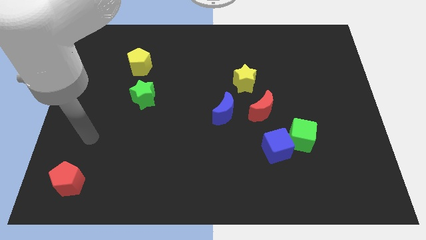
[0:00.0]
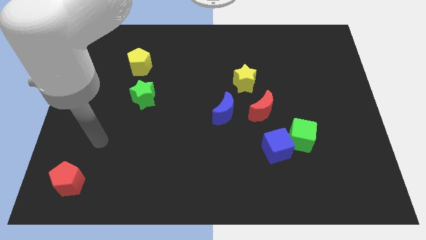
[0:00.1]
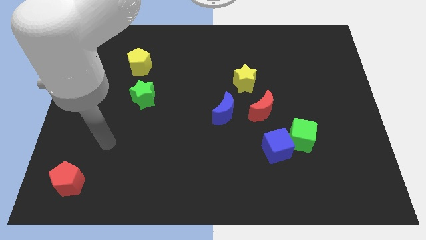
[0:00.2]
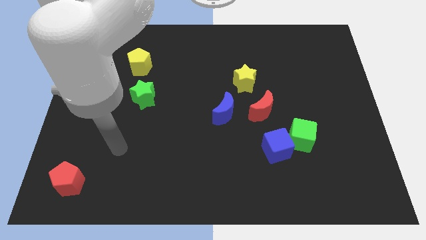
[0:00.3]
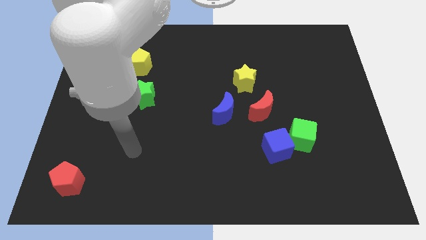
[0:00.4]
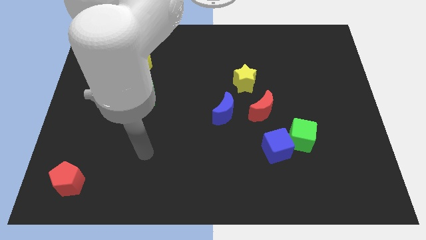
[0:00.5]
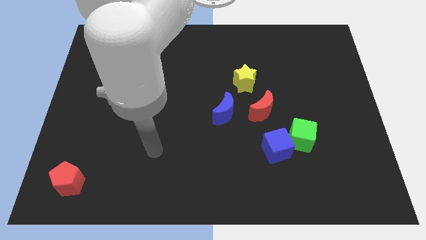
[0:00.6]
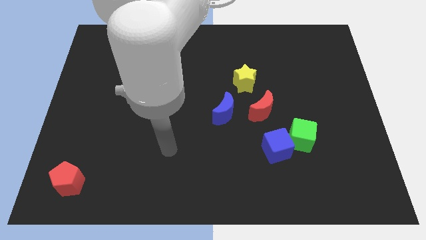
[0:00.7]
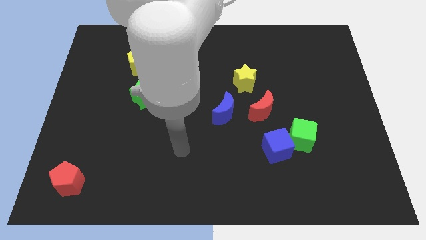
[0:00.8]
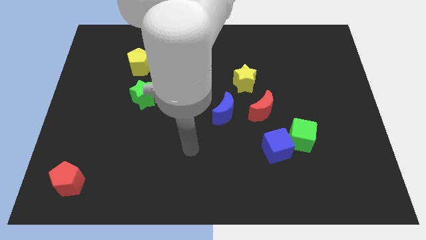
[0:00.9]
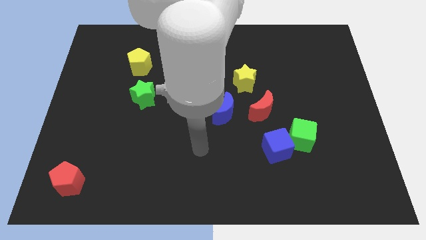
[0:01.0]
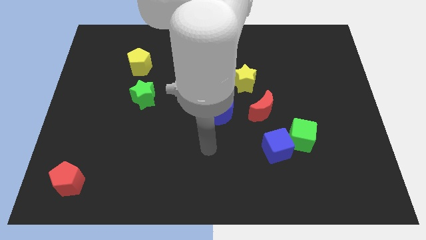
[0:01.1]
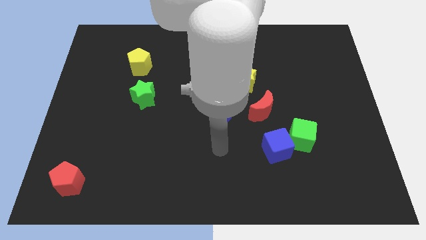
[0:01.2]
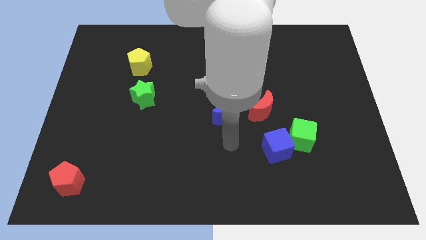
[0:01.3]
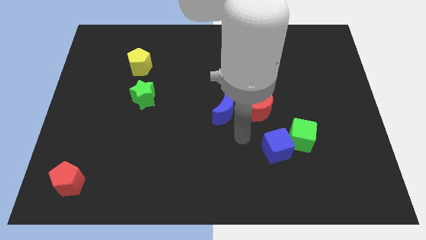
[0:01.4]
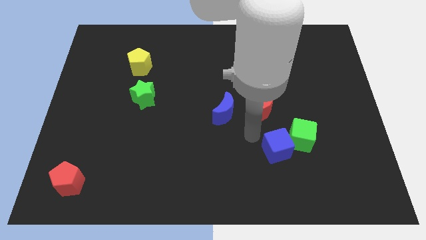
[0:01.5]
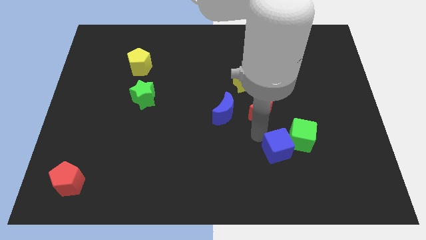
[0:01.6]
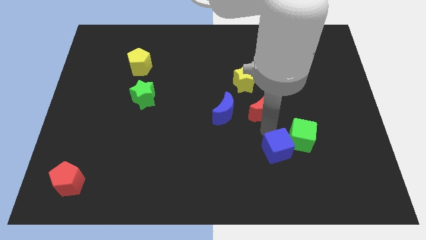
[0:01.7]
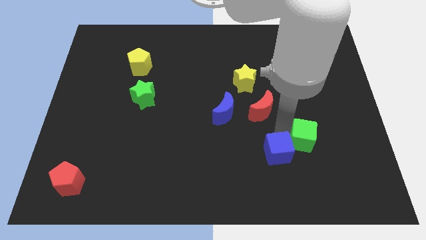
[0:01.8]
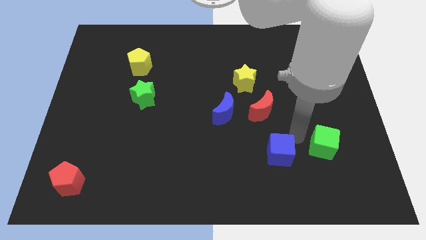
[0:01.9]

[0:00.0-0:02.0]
move the blue cube away from the green cube

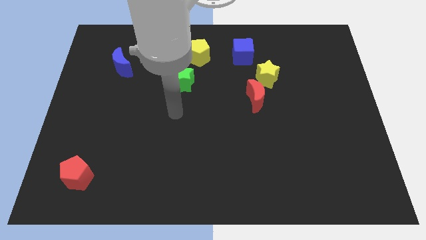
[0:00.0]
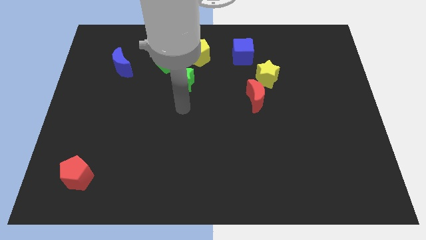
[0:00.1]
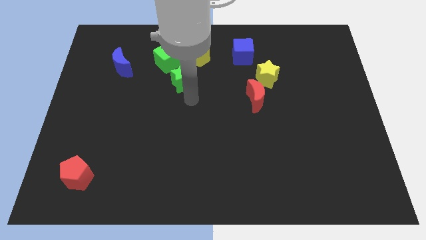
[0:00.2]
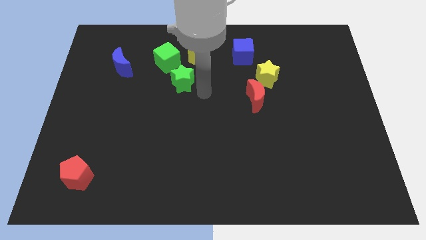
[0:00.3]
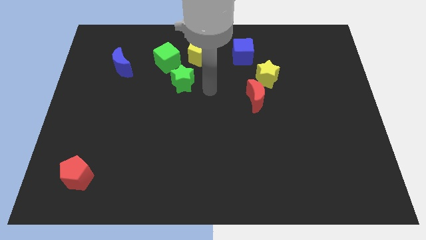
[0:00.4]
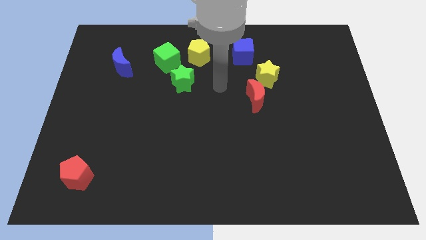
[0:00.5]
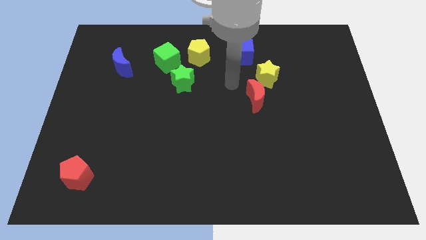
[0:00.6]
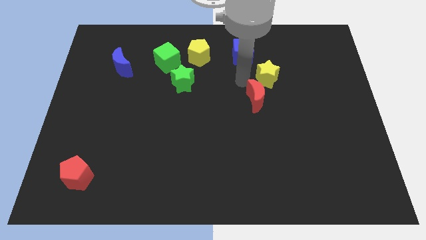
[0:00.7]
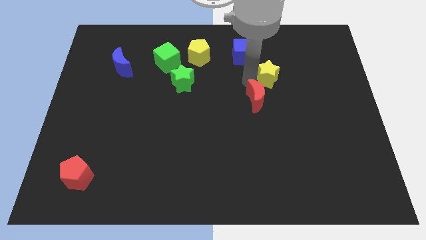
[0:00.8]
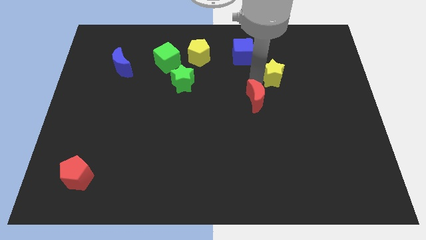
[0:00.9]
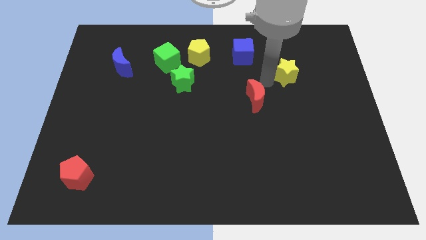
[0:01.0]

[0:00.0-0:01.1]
pull the red moon apart from the yellow star

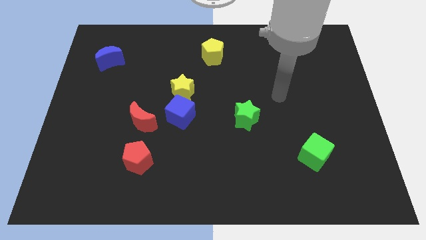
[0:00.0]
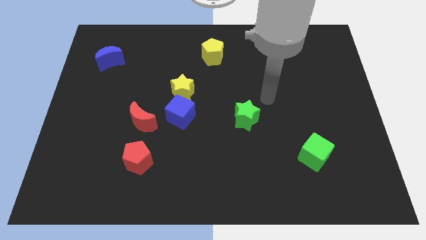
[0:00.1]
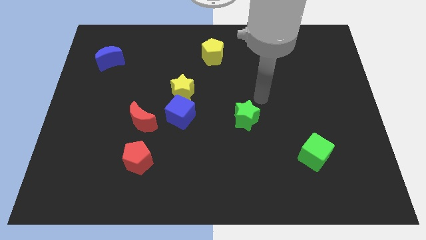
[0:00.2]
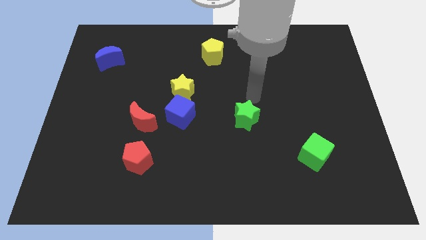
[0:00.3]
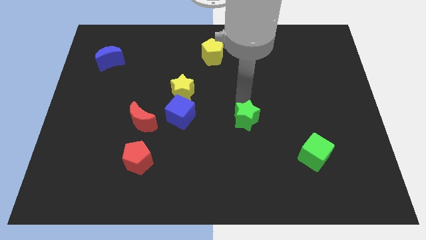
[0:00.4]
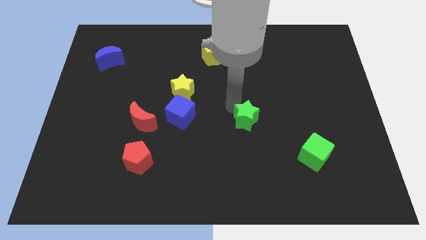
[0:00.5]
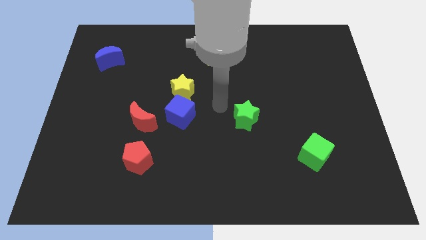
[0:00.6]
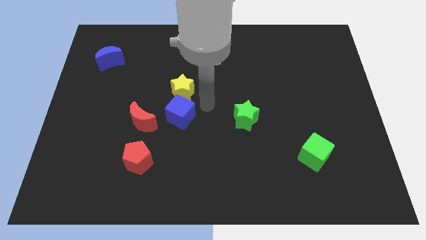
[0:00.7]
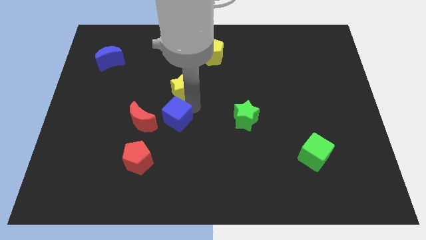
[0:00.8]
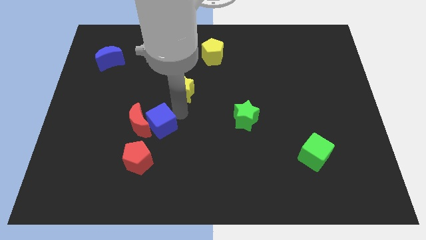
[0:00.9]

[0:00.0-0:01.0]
move the yellow star away from the blue cube

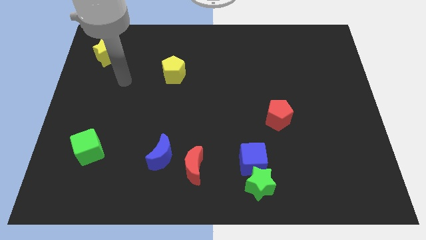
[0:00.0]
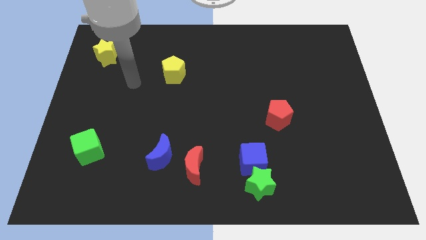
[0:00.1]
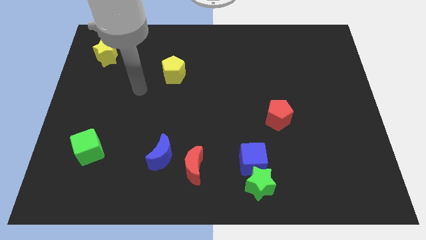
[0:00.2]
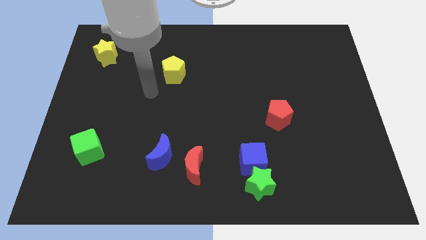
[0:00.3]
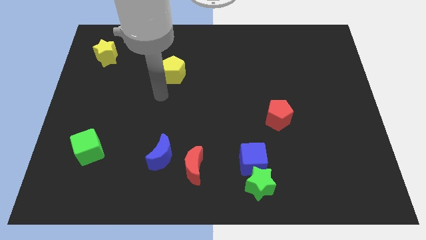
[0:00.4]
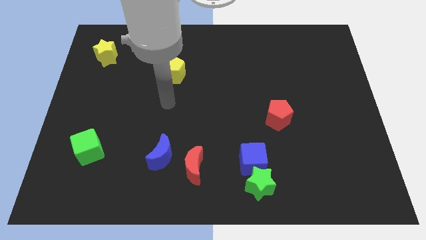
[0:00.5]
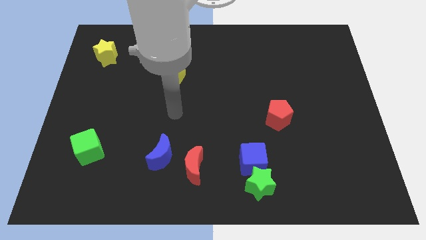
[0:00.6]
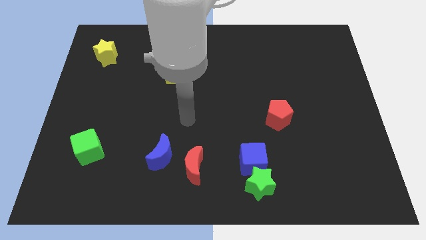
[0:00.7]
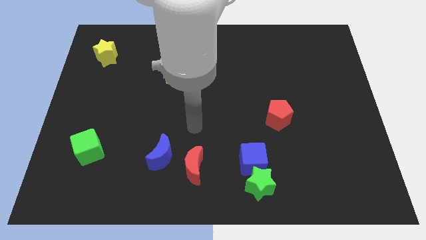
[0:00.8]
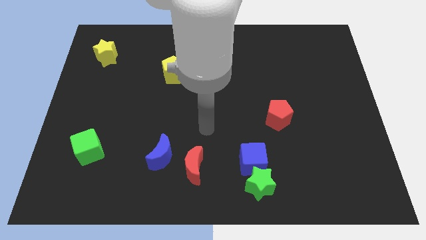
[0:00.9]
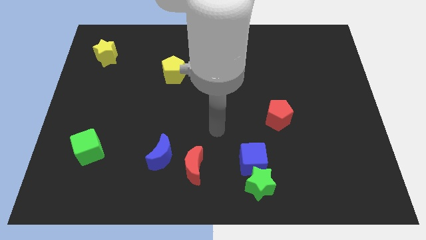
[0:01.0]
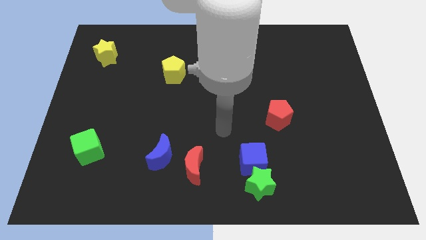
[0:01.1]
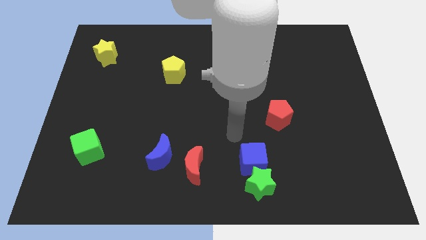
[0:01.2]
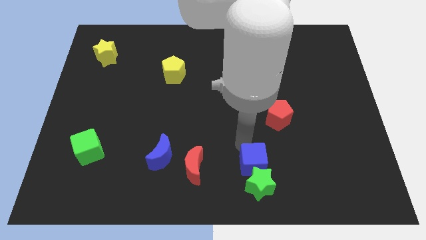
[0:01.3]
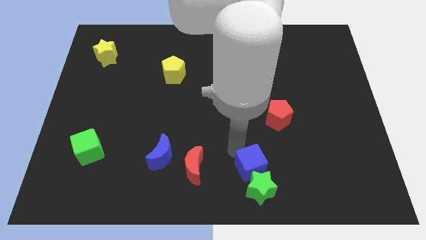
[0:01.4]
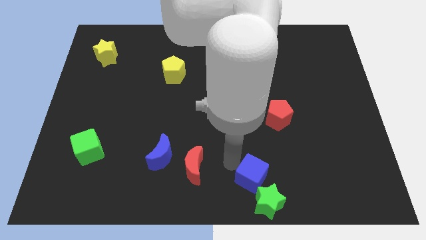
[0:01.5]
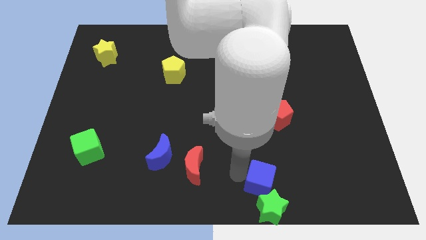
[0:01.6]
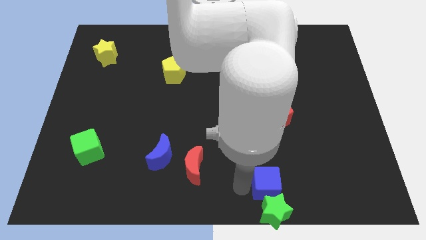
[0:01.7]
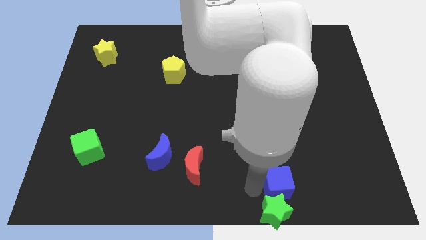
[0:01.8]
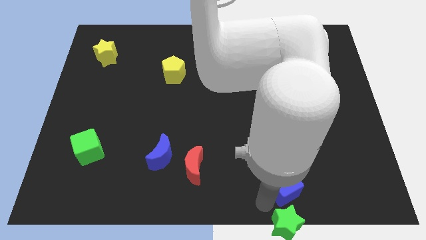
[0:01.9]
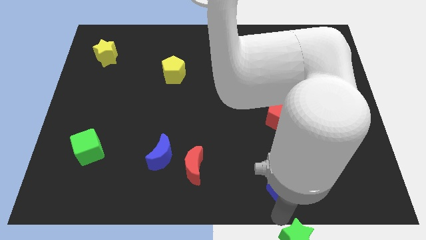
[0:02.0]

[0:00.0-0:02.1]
separate the blue cube from the green star

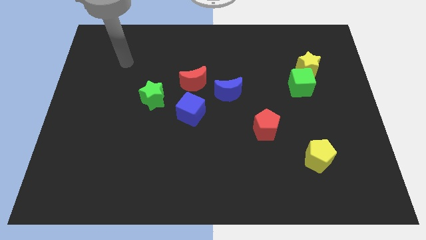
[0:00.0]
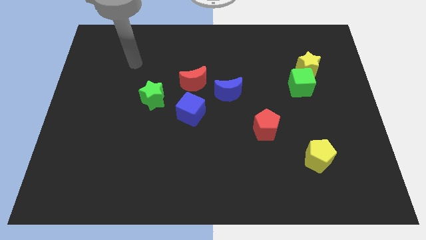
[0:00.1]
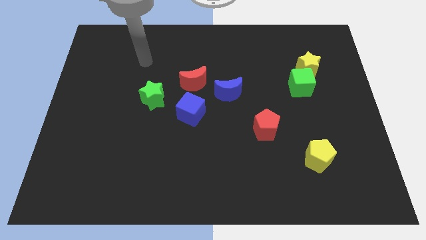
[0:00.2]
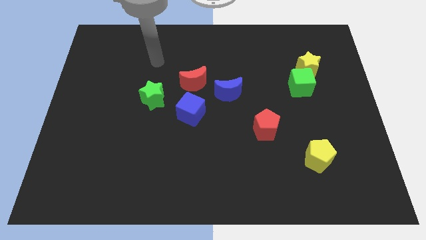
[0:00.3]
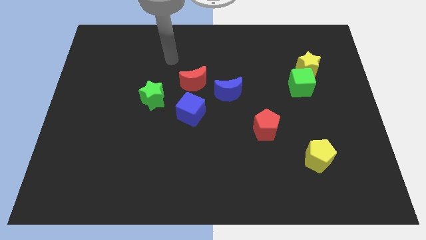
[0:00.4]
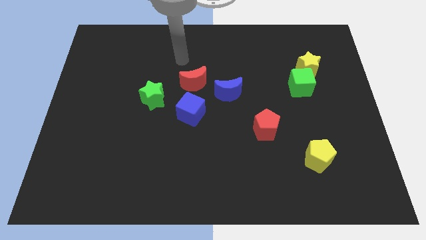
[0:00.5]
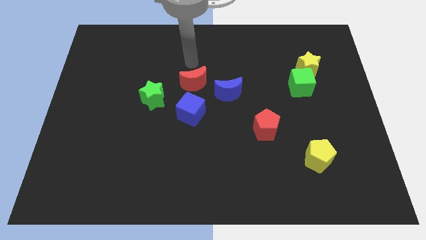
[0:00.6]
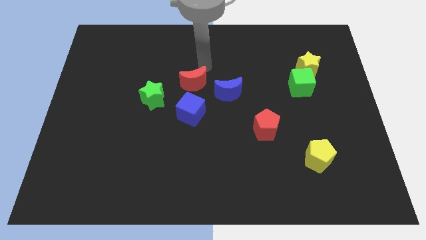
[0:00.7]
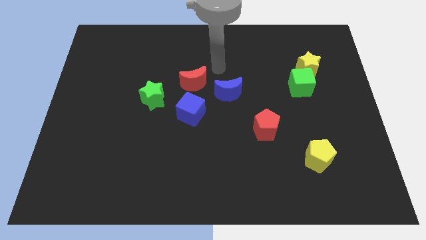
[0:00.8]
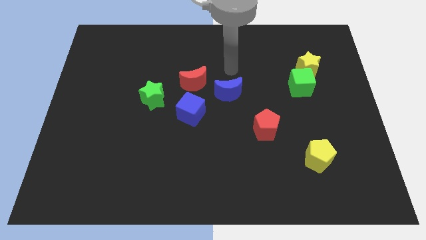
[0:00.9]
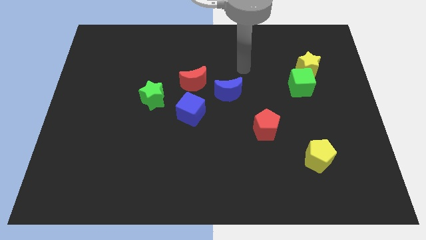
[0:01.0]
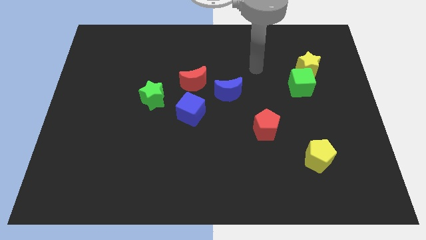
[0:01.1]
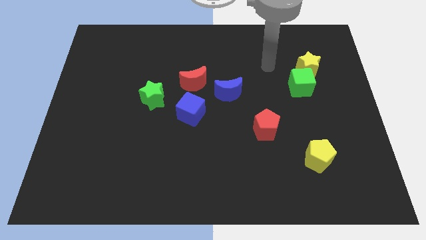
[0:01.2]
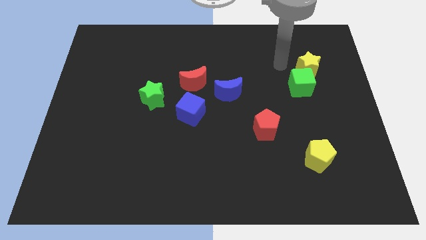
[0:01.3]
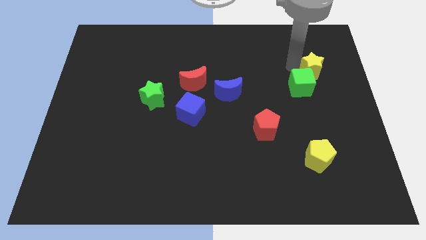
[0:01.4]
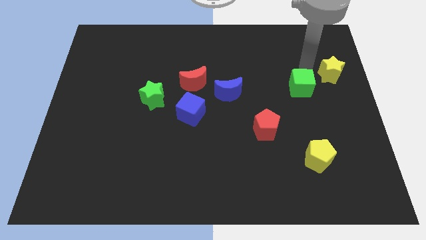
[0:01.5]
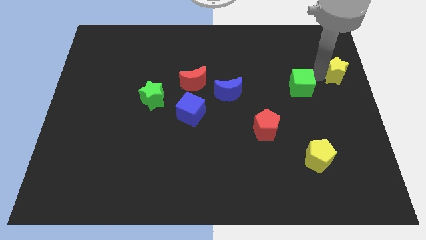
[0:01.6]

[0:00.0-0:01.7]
pull the green cube apart from the yellow star

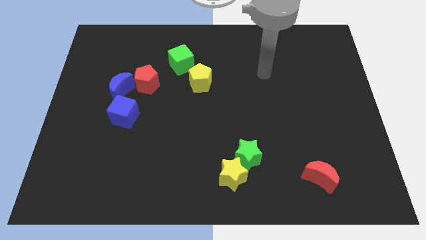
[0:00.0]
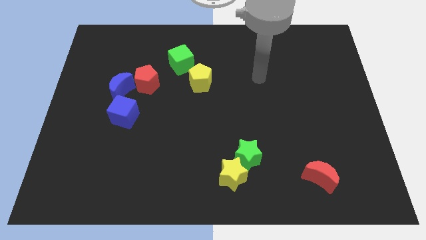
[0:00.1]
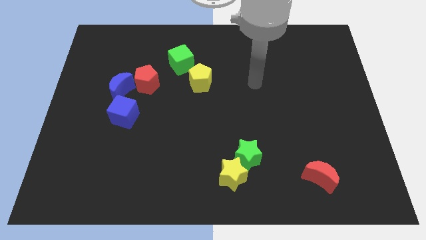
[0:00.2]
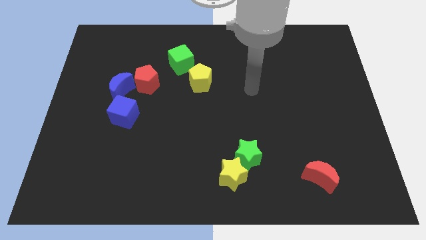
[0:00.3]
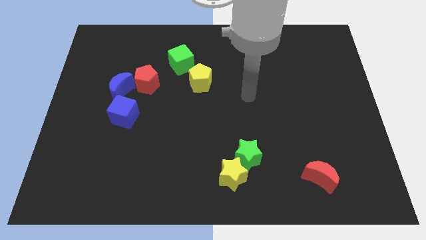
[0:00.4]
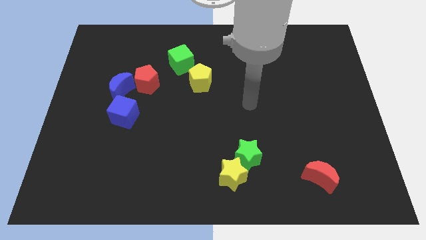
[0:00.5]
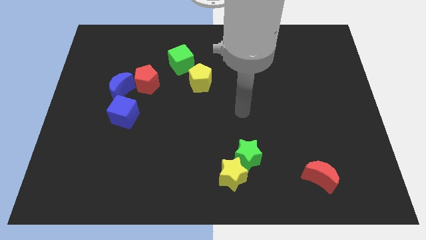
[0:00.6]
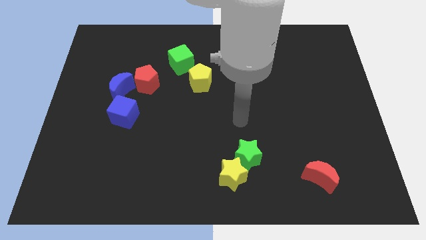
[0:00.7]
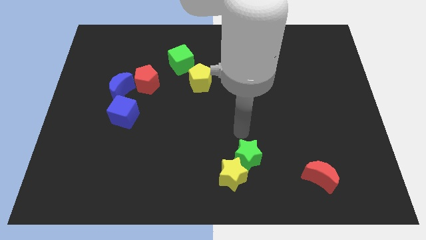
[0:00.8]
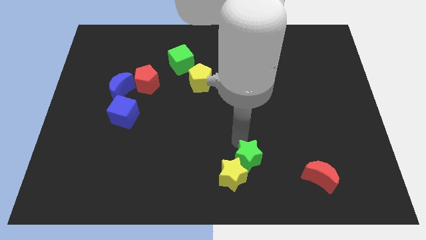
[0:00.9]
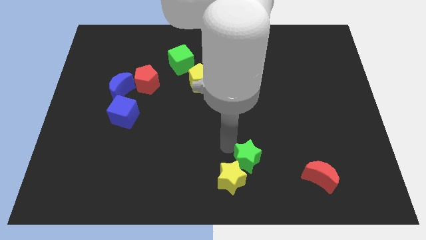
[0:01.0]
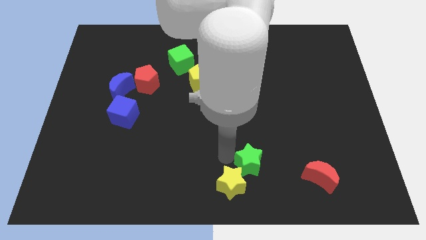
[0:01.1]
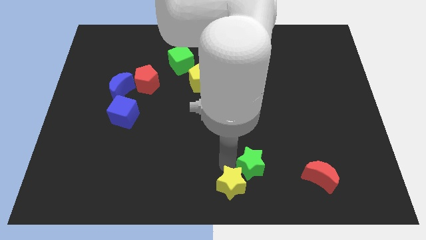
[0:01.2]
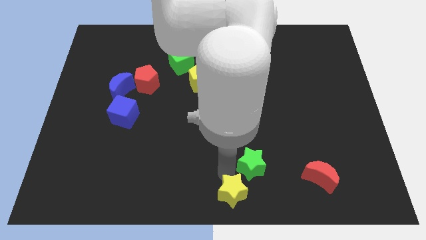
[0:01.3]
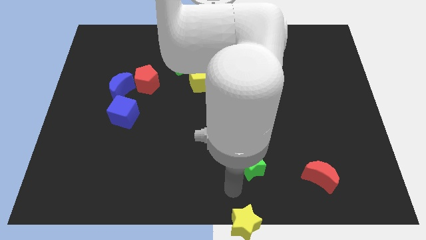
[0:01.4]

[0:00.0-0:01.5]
separate the green star from the yellow star
